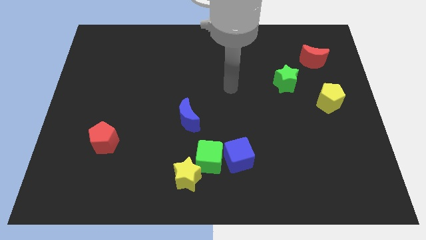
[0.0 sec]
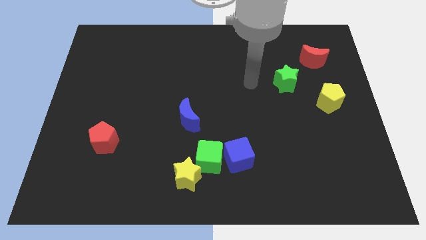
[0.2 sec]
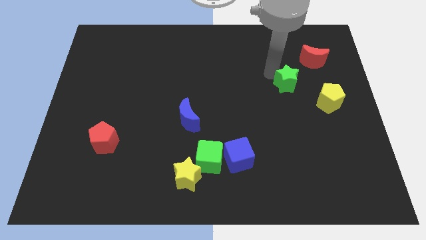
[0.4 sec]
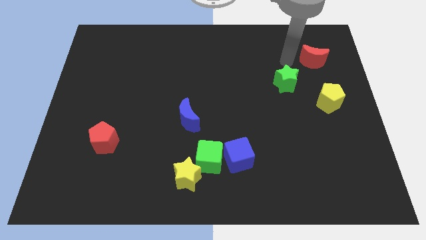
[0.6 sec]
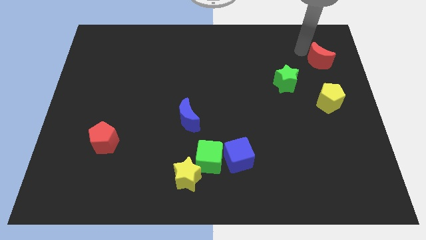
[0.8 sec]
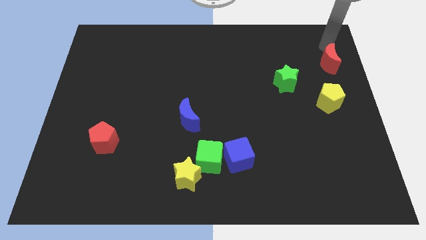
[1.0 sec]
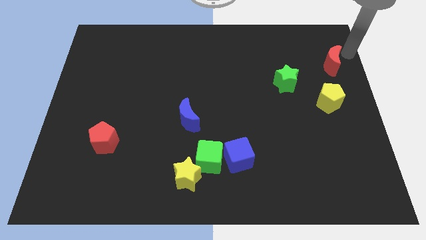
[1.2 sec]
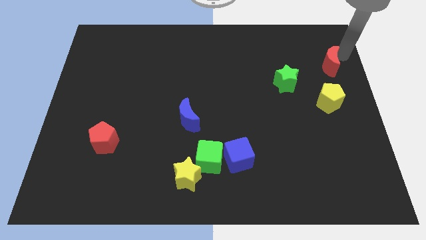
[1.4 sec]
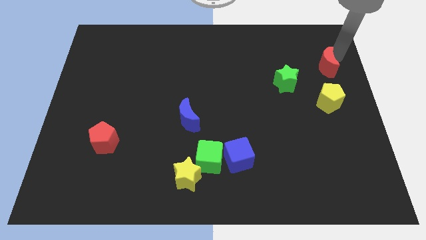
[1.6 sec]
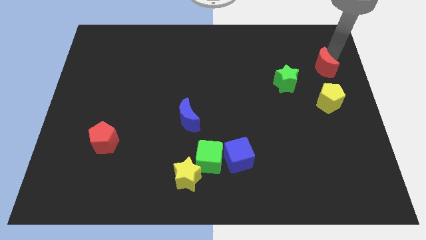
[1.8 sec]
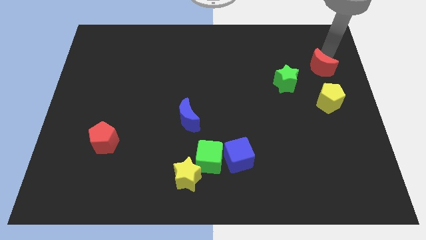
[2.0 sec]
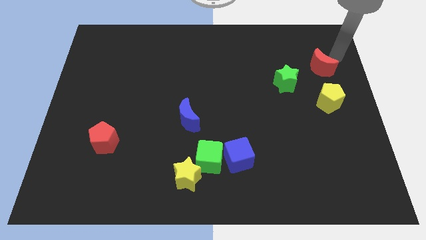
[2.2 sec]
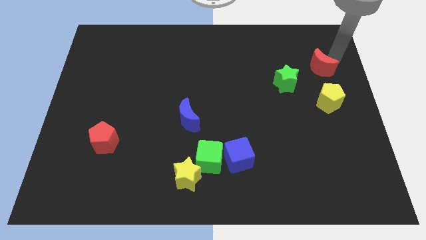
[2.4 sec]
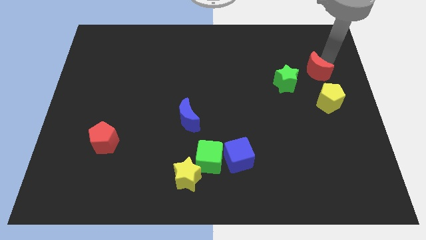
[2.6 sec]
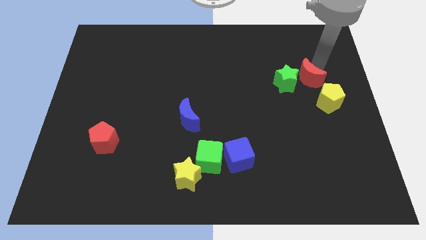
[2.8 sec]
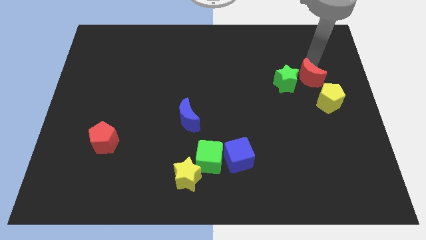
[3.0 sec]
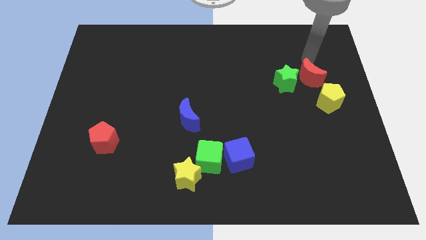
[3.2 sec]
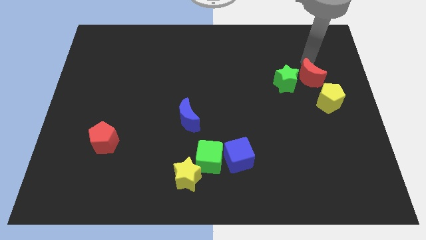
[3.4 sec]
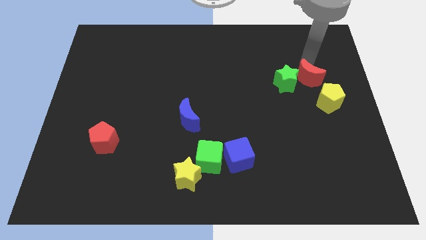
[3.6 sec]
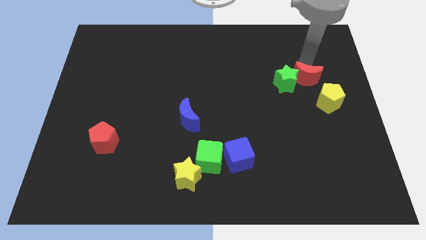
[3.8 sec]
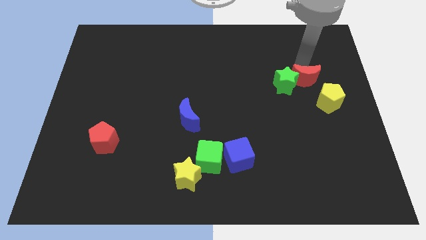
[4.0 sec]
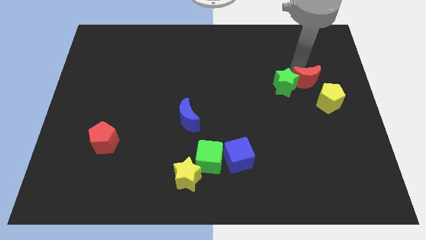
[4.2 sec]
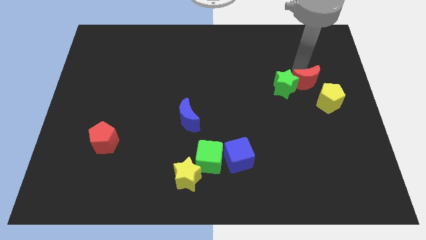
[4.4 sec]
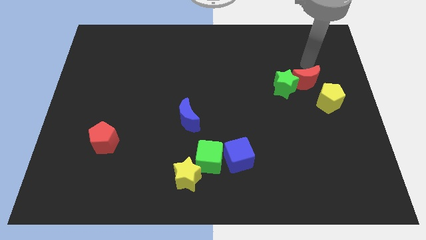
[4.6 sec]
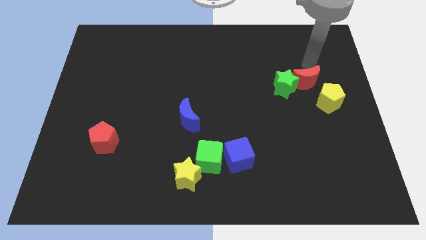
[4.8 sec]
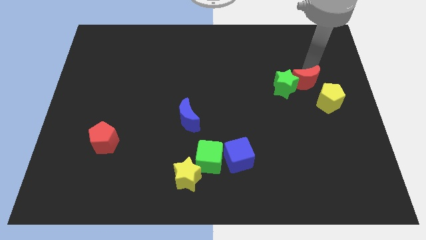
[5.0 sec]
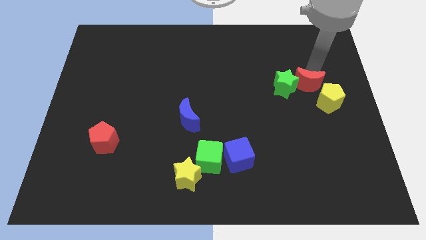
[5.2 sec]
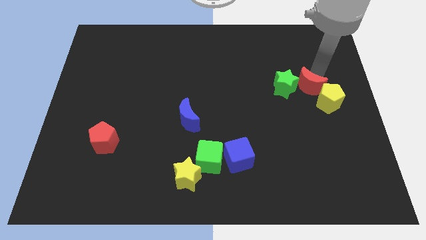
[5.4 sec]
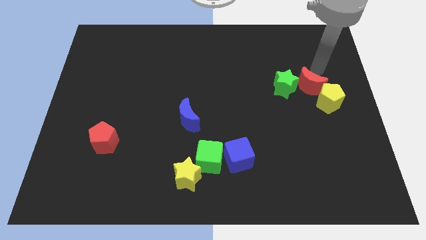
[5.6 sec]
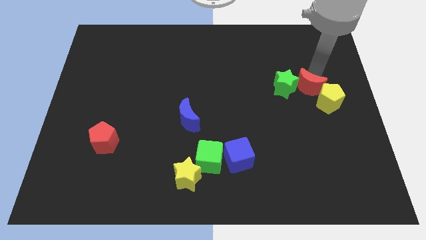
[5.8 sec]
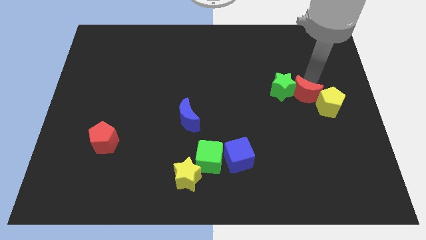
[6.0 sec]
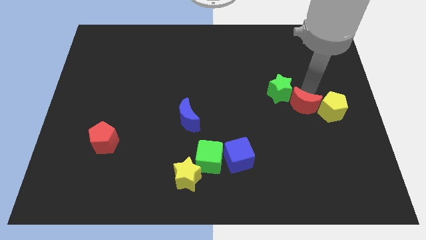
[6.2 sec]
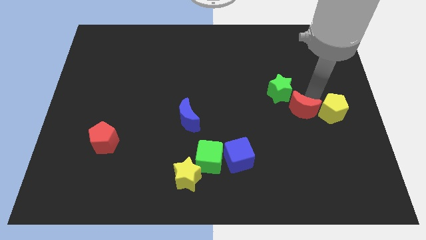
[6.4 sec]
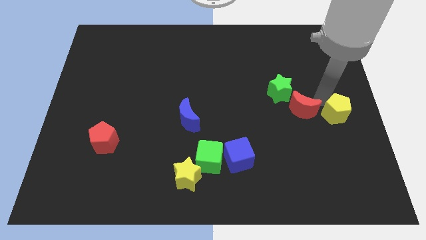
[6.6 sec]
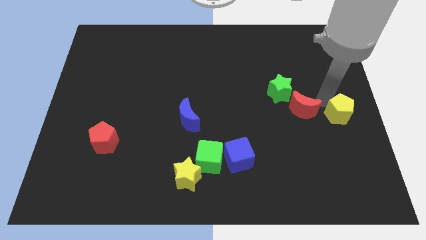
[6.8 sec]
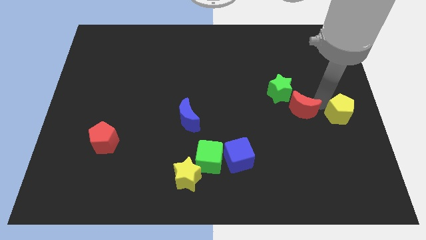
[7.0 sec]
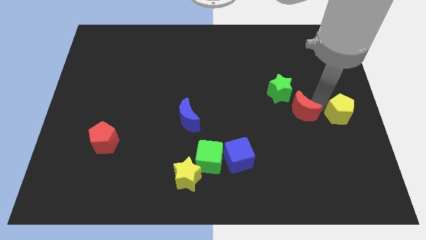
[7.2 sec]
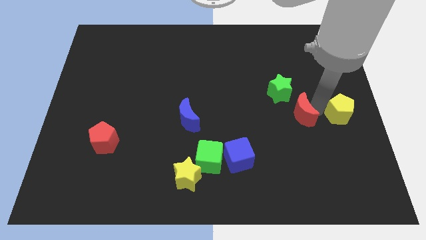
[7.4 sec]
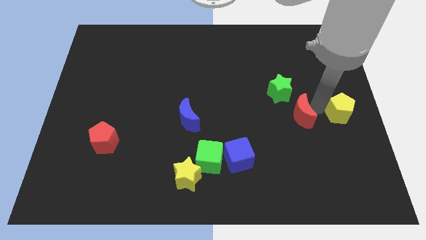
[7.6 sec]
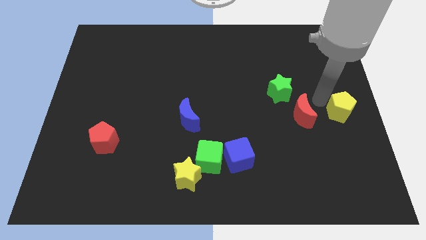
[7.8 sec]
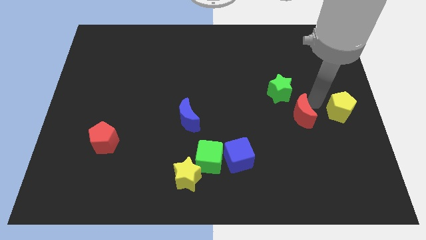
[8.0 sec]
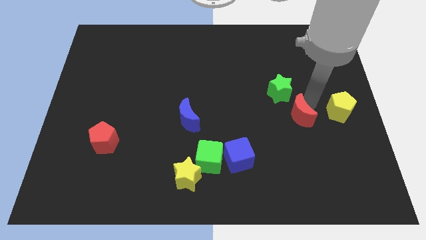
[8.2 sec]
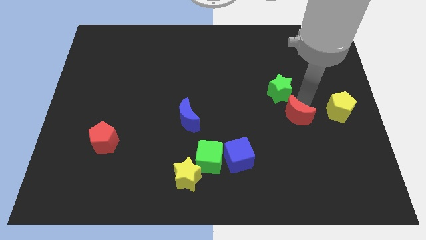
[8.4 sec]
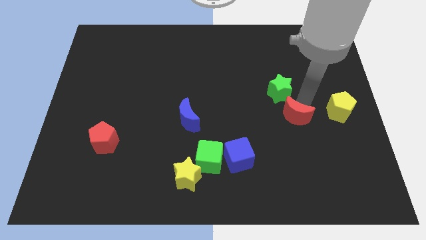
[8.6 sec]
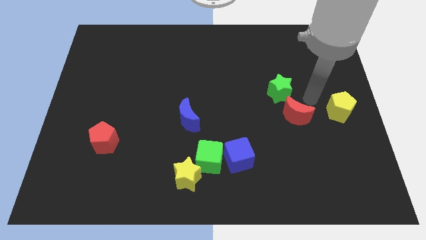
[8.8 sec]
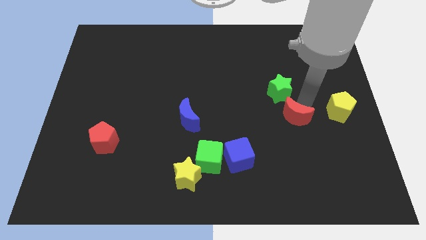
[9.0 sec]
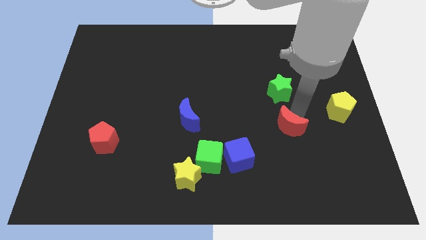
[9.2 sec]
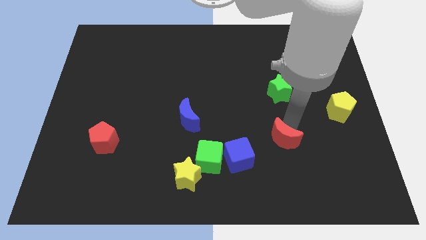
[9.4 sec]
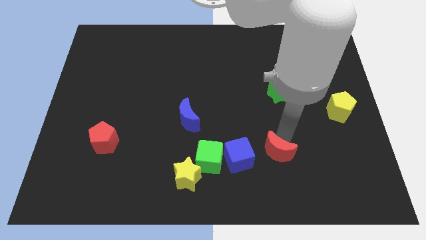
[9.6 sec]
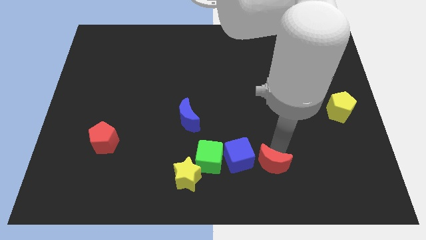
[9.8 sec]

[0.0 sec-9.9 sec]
slide the red moon to the bottom right of the blue cube

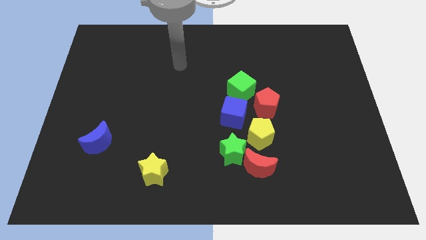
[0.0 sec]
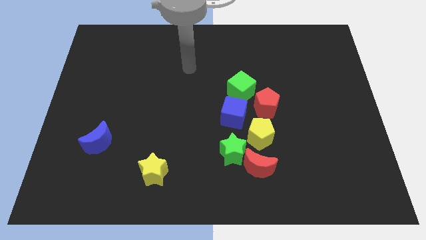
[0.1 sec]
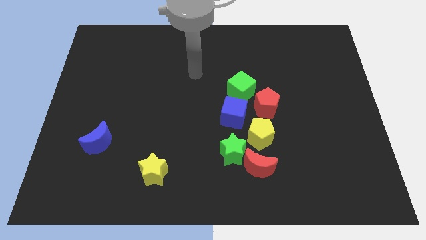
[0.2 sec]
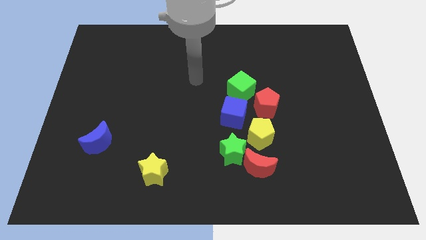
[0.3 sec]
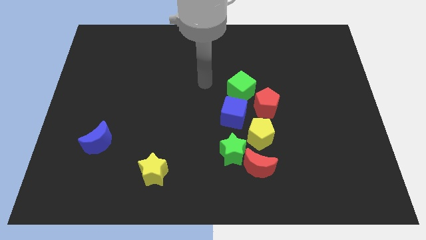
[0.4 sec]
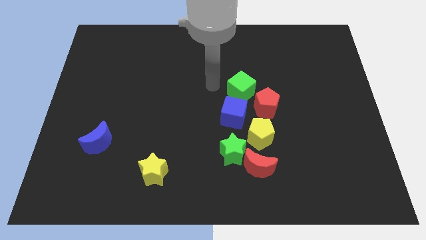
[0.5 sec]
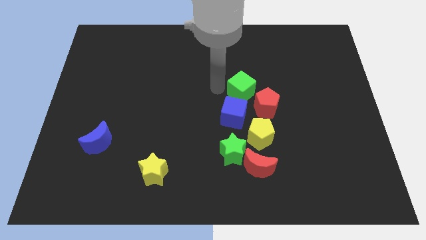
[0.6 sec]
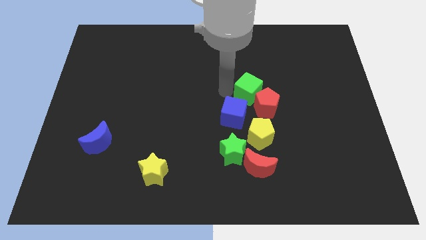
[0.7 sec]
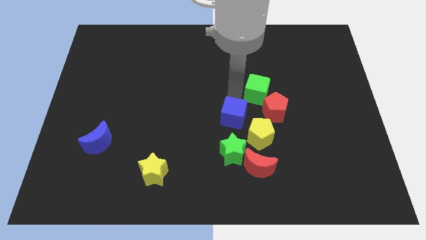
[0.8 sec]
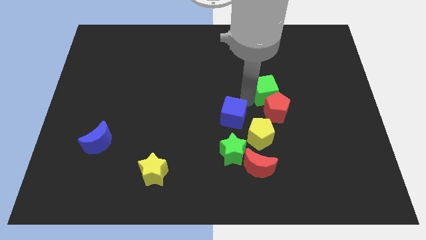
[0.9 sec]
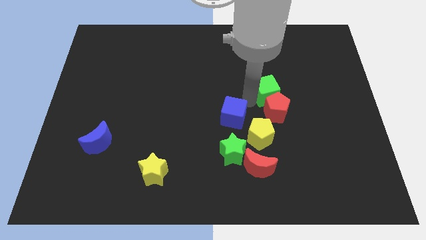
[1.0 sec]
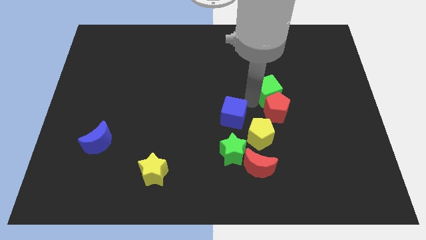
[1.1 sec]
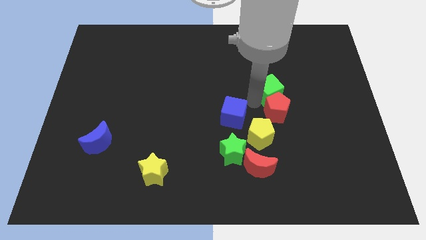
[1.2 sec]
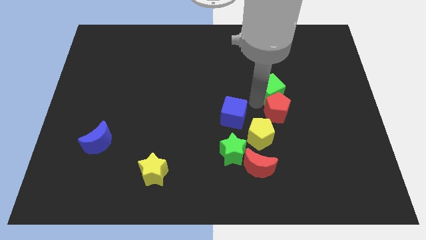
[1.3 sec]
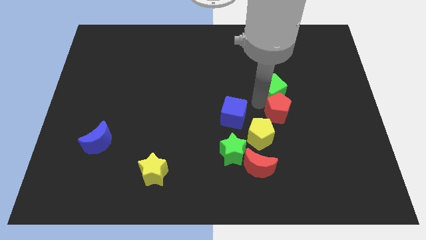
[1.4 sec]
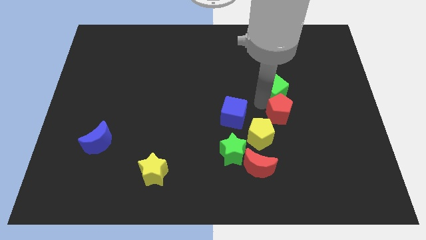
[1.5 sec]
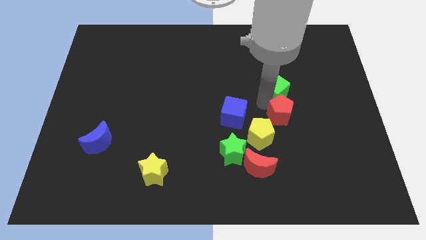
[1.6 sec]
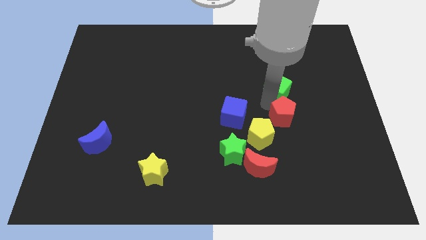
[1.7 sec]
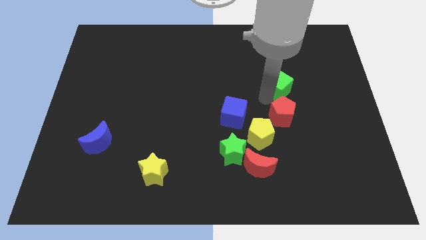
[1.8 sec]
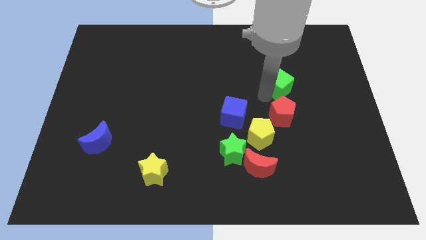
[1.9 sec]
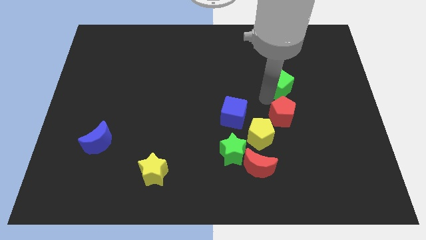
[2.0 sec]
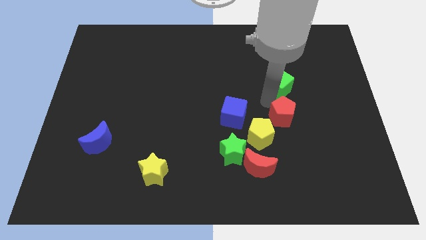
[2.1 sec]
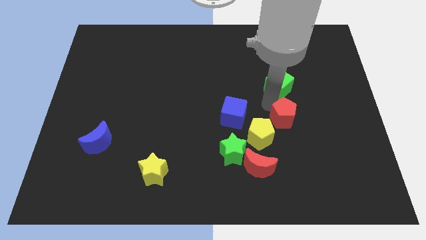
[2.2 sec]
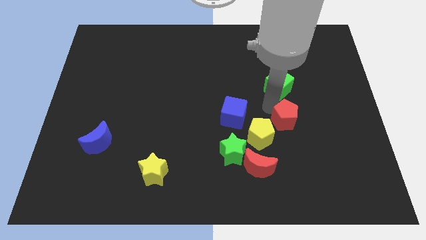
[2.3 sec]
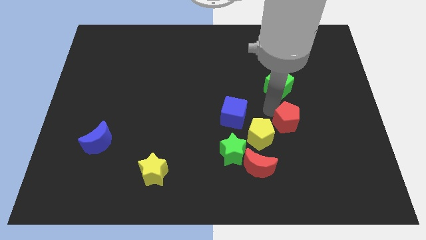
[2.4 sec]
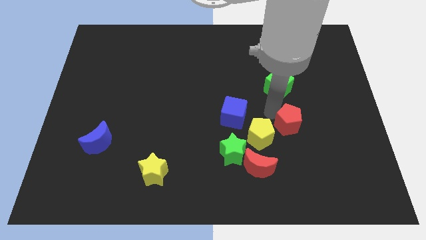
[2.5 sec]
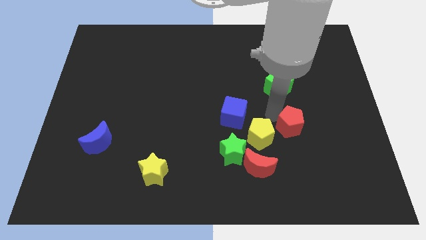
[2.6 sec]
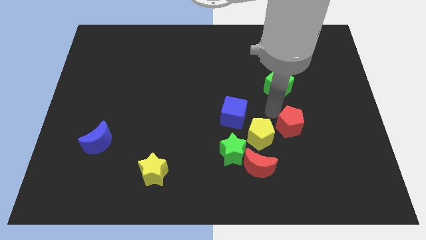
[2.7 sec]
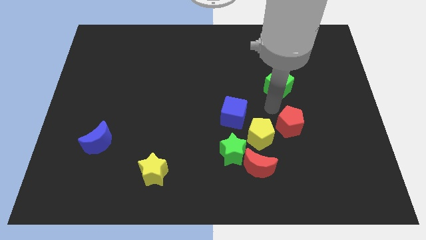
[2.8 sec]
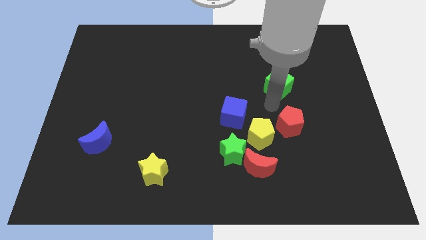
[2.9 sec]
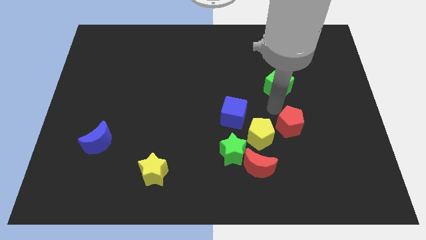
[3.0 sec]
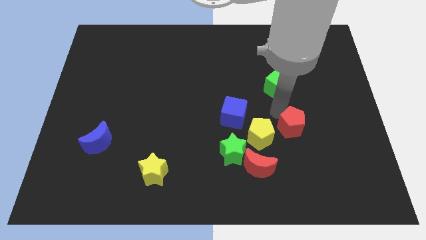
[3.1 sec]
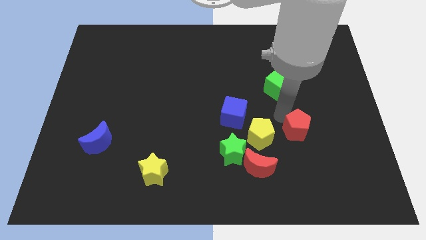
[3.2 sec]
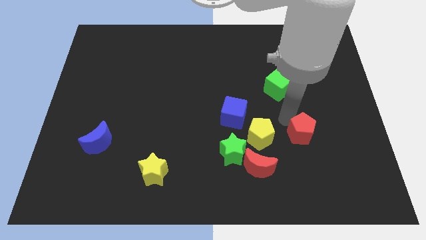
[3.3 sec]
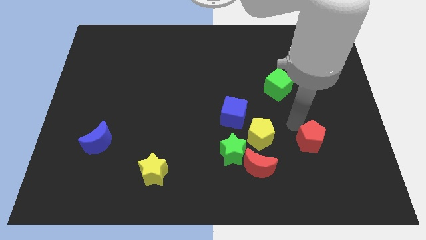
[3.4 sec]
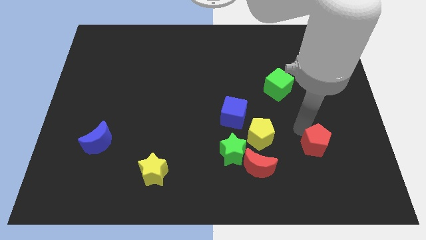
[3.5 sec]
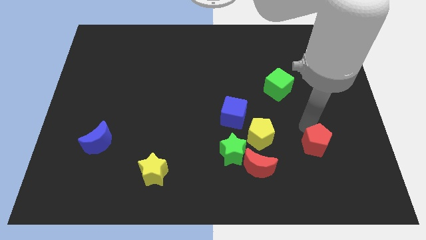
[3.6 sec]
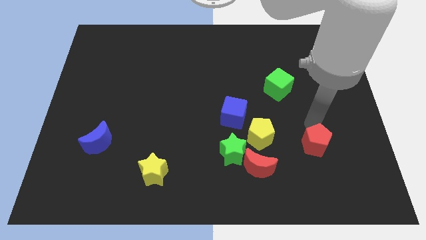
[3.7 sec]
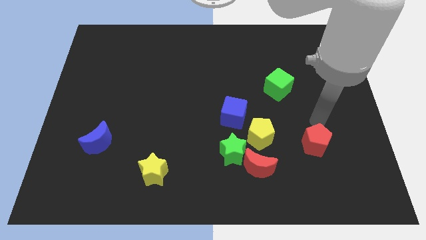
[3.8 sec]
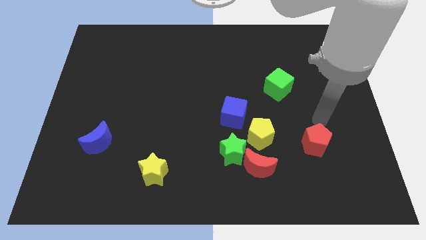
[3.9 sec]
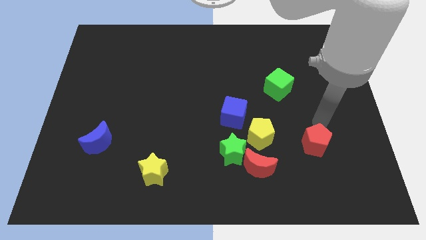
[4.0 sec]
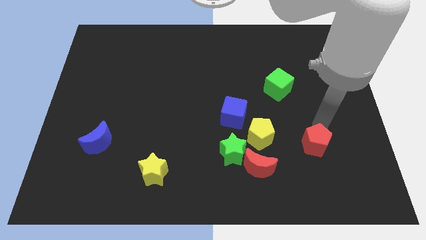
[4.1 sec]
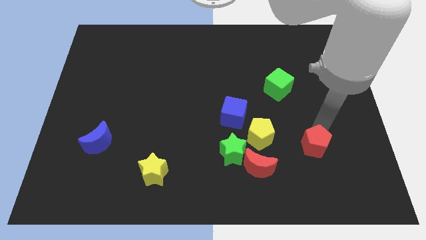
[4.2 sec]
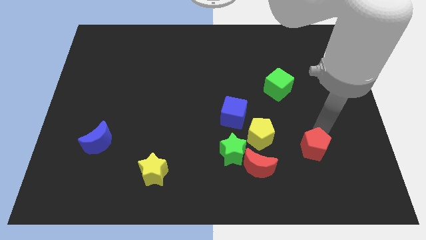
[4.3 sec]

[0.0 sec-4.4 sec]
move the red pentagon to the right side of the red moon
